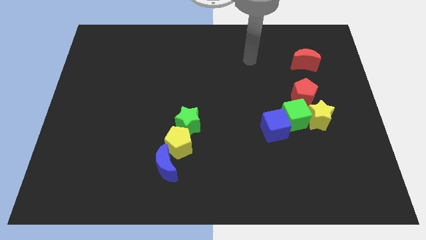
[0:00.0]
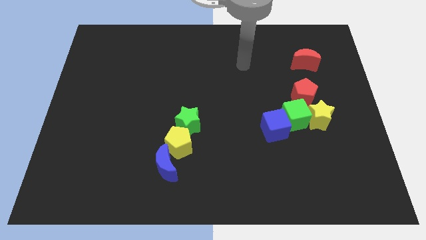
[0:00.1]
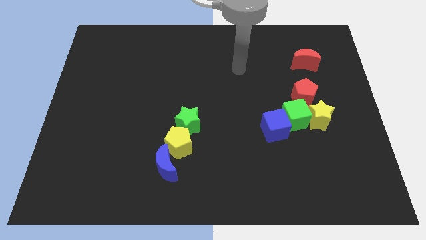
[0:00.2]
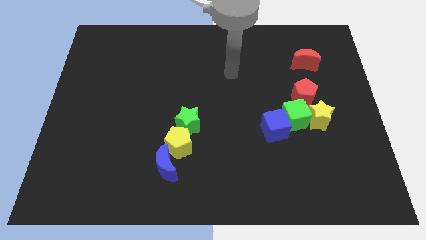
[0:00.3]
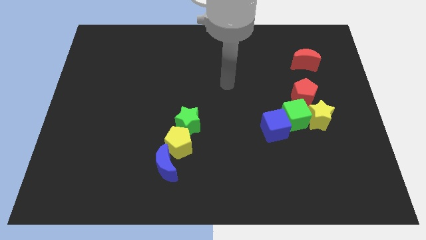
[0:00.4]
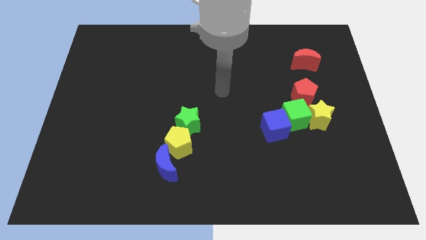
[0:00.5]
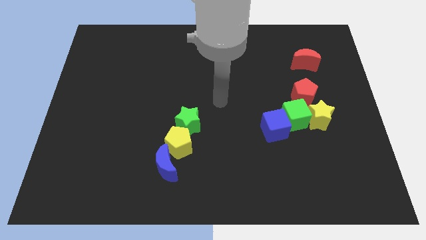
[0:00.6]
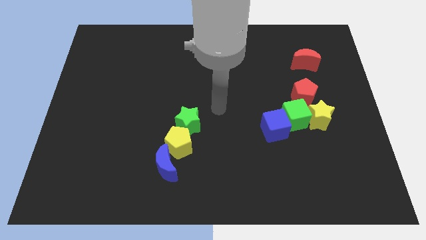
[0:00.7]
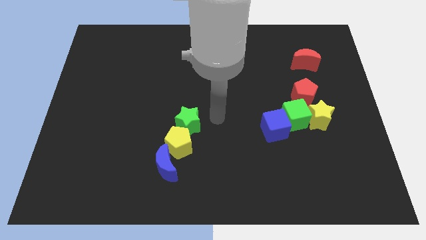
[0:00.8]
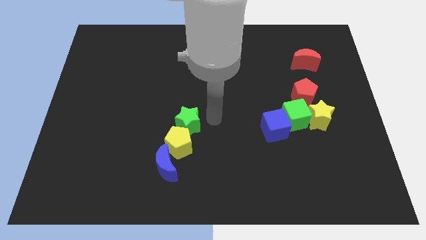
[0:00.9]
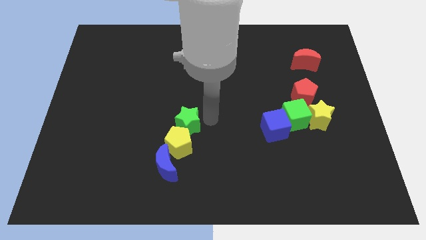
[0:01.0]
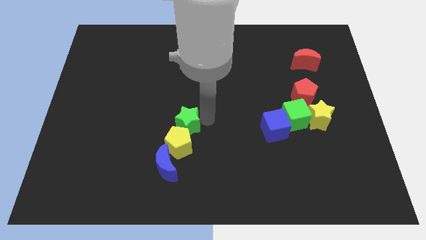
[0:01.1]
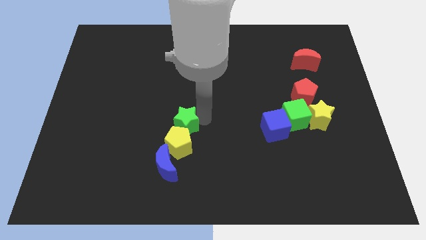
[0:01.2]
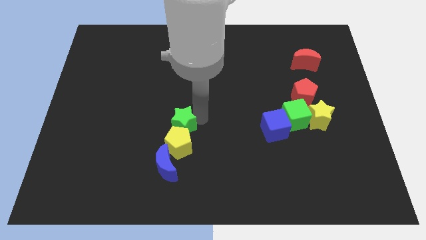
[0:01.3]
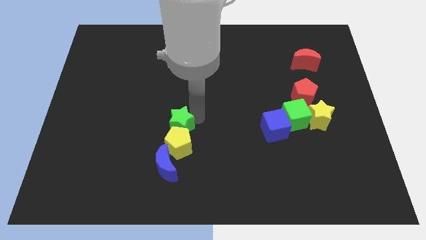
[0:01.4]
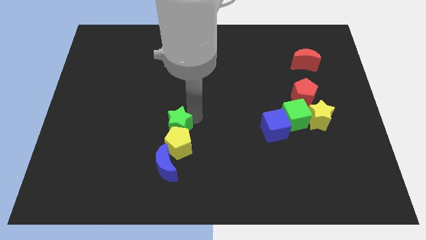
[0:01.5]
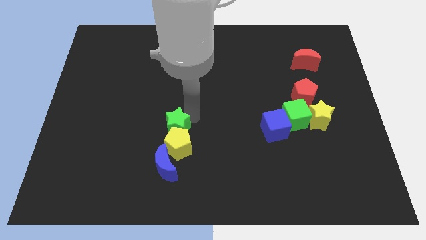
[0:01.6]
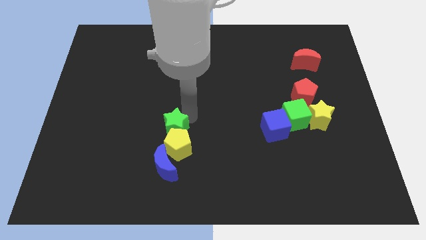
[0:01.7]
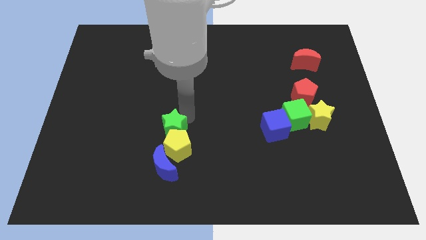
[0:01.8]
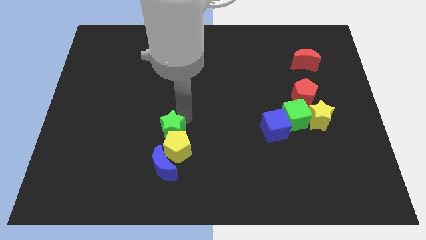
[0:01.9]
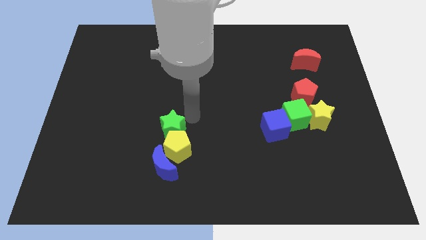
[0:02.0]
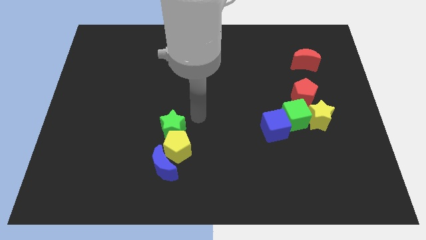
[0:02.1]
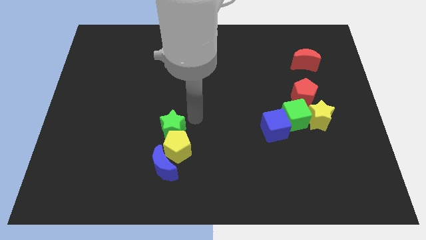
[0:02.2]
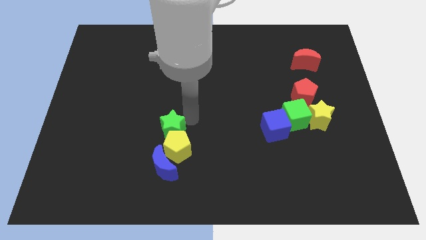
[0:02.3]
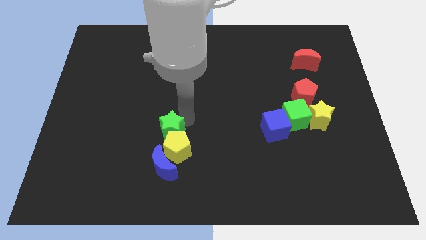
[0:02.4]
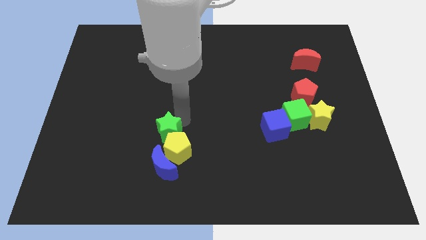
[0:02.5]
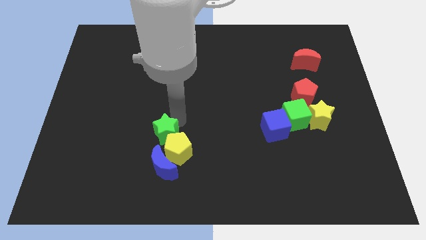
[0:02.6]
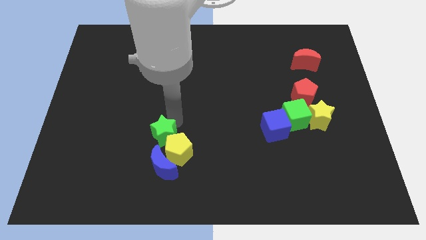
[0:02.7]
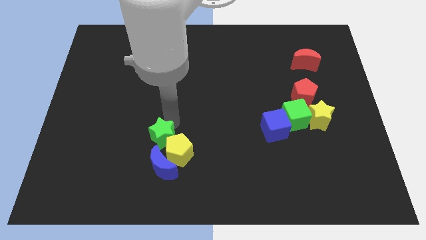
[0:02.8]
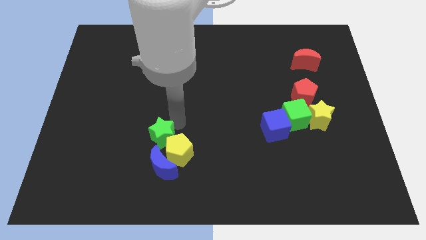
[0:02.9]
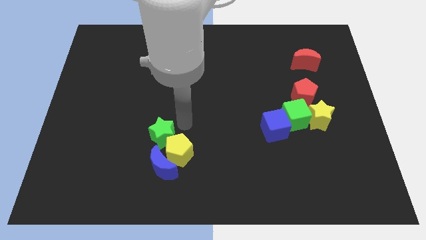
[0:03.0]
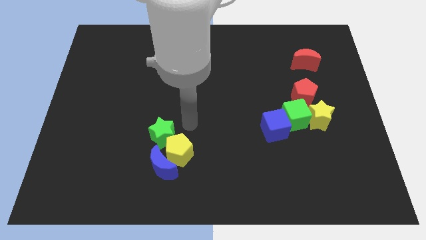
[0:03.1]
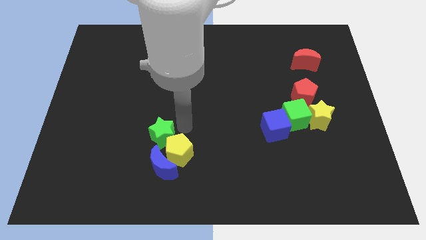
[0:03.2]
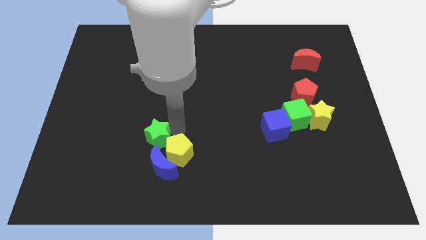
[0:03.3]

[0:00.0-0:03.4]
slide the green star a bit diagonally down and left

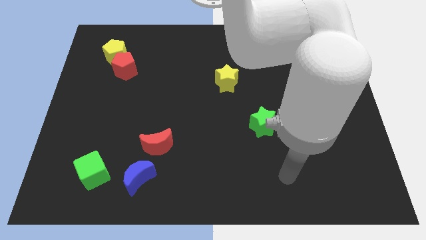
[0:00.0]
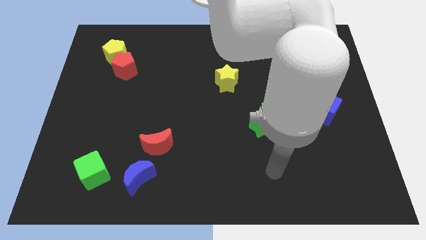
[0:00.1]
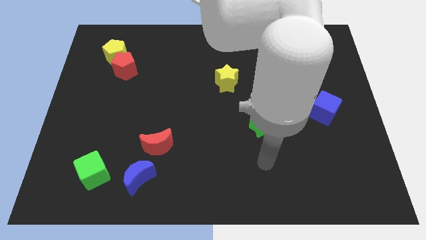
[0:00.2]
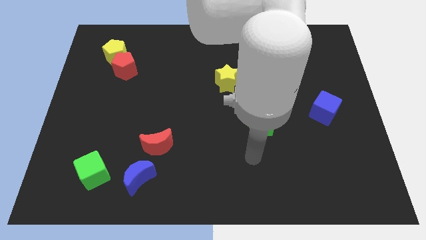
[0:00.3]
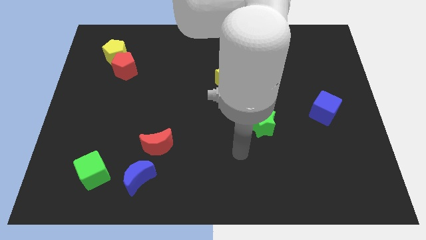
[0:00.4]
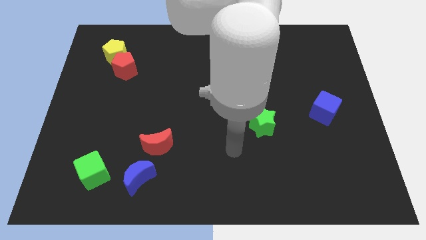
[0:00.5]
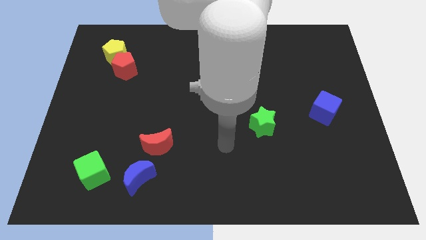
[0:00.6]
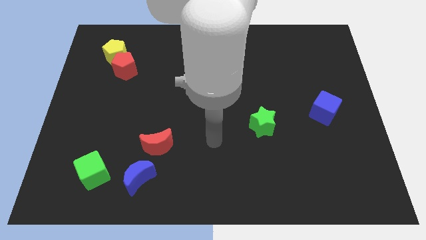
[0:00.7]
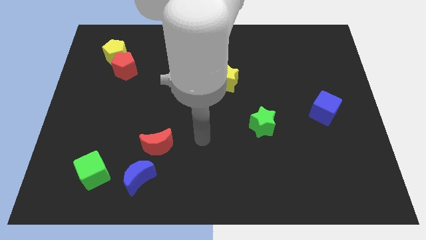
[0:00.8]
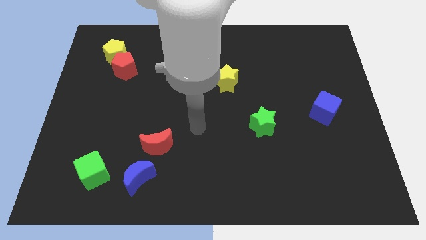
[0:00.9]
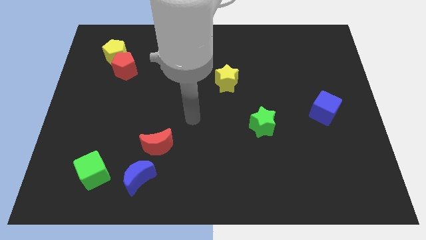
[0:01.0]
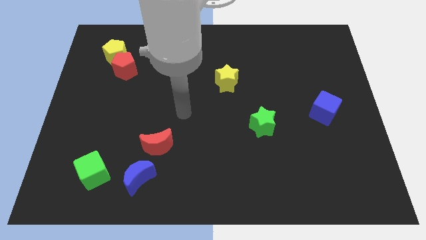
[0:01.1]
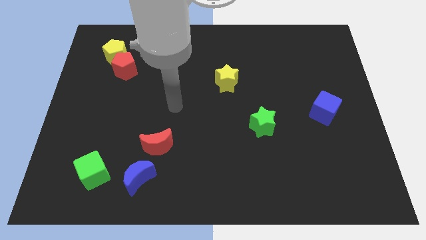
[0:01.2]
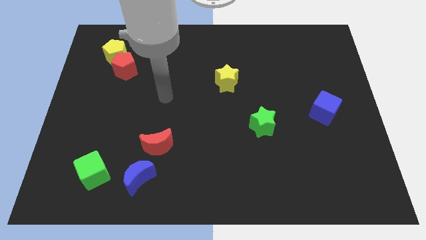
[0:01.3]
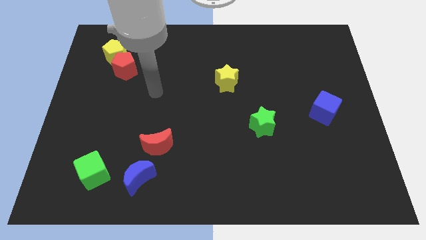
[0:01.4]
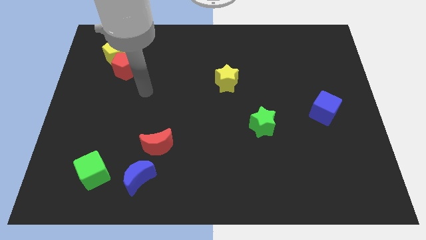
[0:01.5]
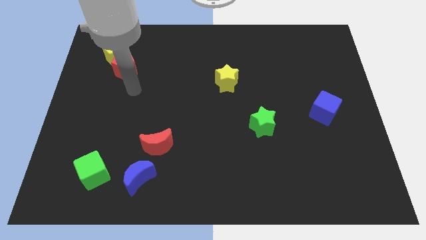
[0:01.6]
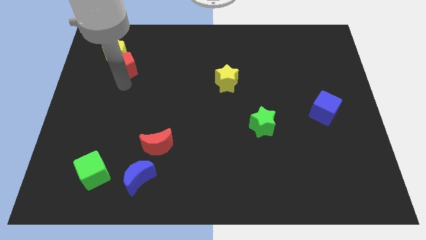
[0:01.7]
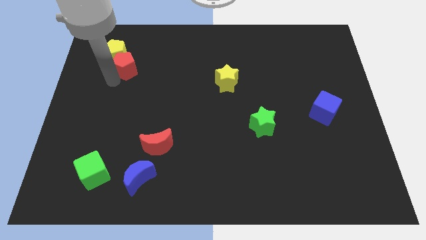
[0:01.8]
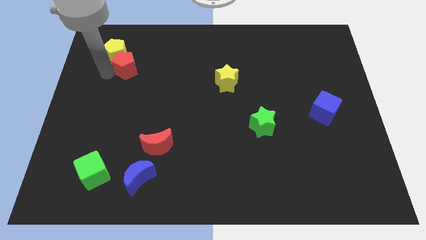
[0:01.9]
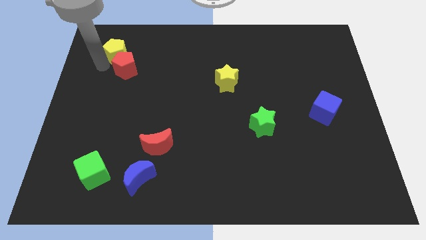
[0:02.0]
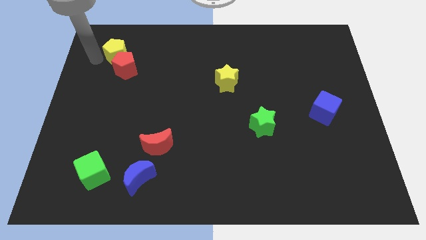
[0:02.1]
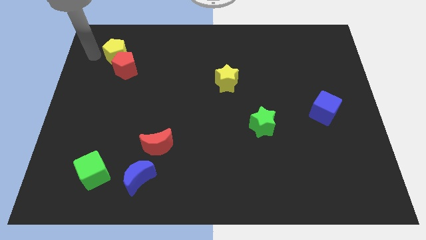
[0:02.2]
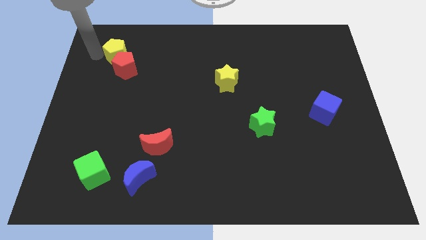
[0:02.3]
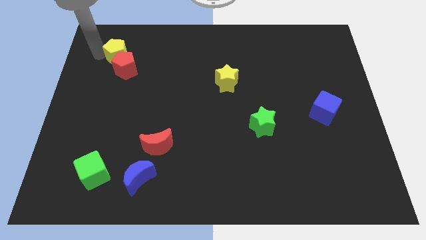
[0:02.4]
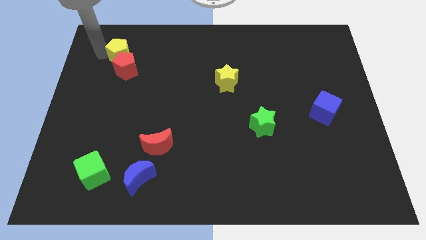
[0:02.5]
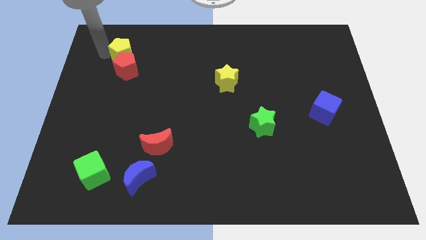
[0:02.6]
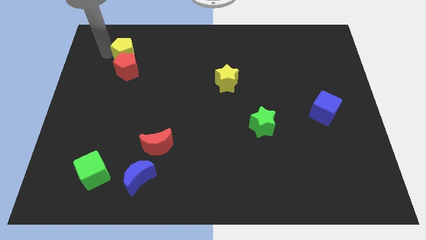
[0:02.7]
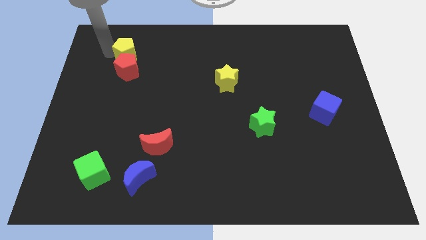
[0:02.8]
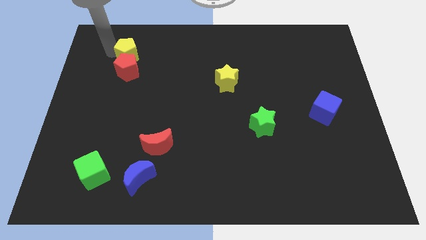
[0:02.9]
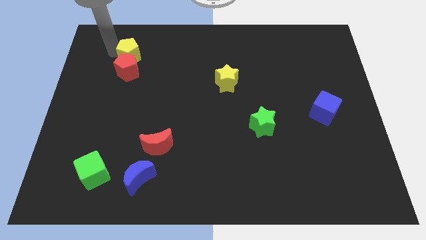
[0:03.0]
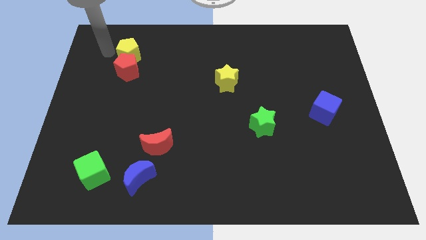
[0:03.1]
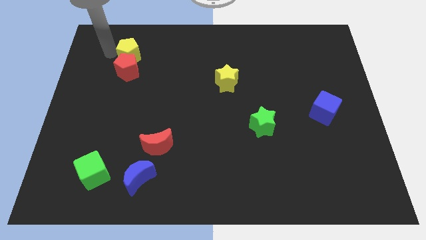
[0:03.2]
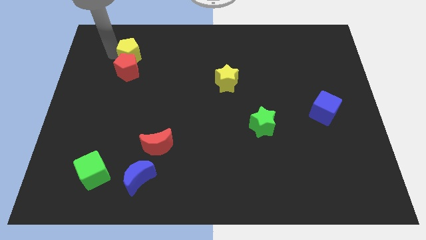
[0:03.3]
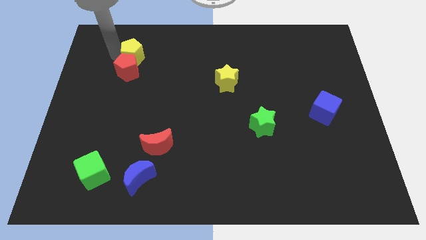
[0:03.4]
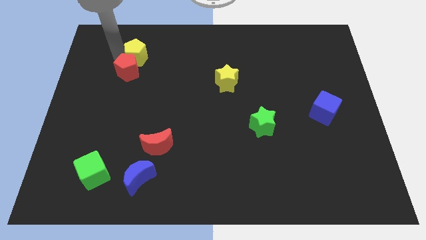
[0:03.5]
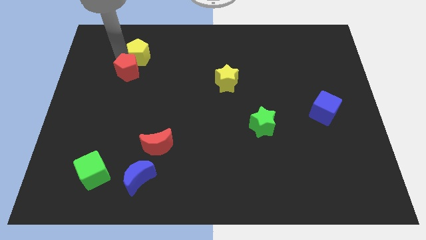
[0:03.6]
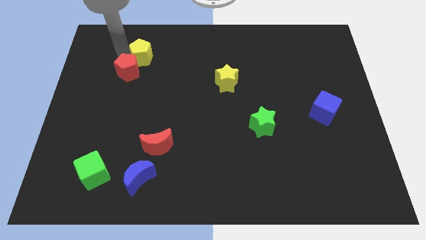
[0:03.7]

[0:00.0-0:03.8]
push the yellow pentagon to the right a bit

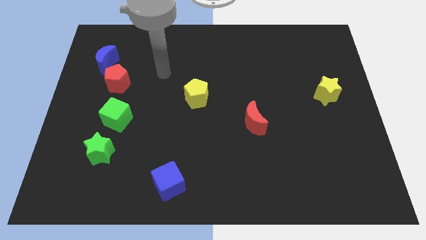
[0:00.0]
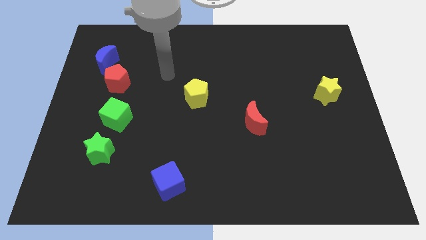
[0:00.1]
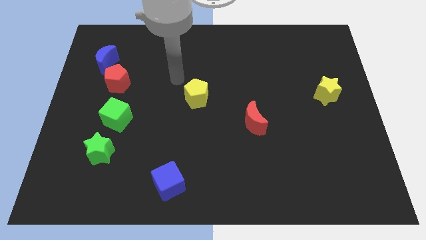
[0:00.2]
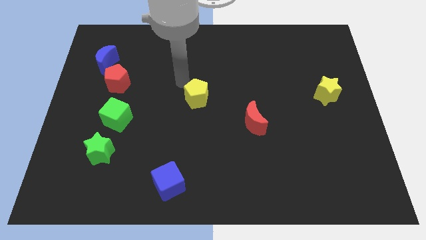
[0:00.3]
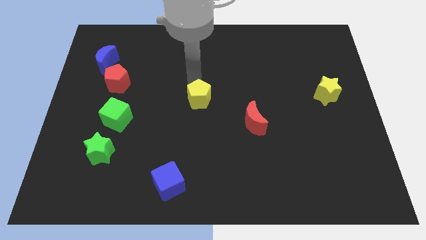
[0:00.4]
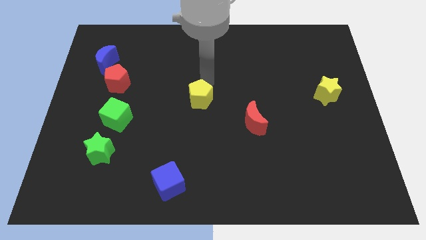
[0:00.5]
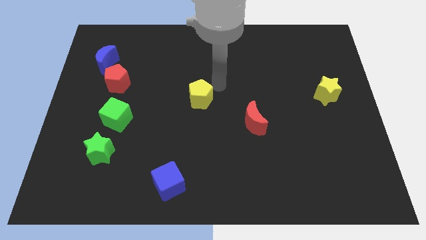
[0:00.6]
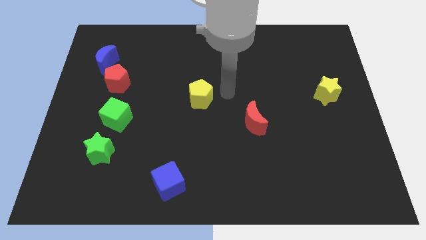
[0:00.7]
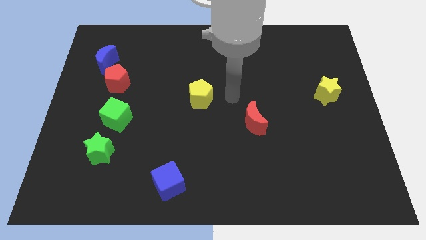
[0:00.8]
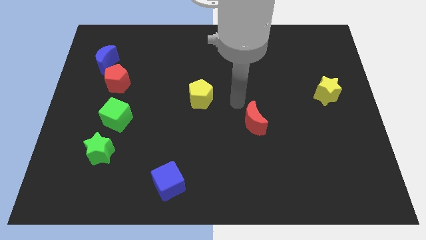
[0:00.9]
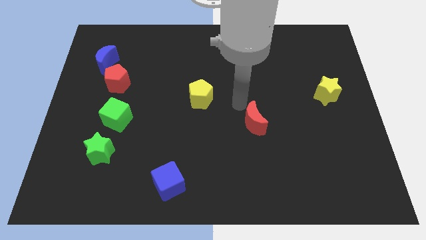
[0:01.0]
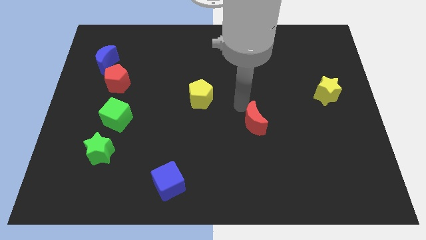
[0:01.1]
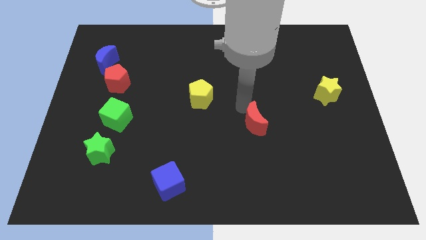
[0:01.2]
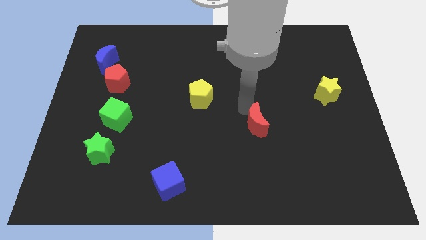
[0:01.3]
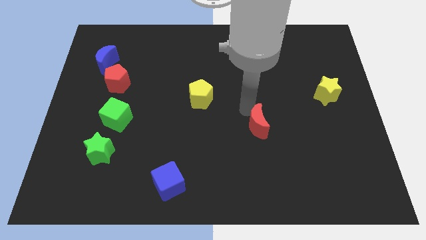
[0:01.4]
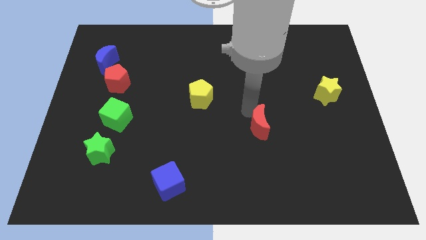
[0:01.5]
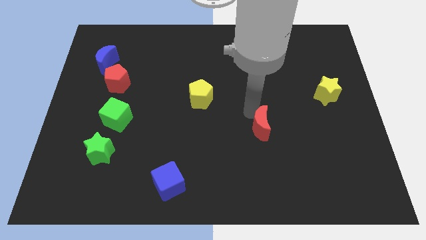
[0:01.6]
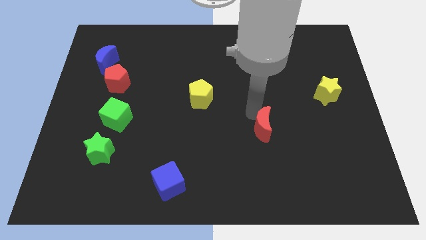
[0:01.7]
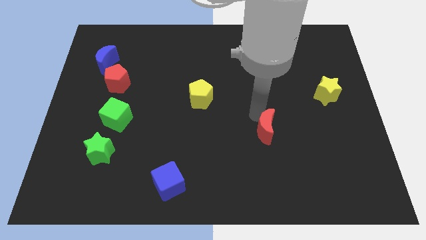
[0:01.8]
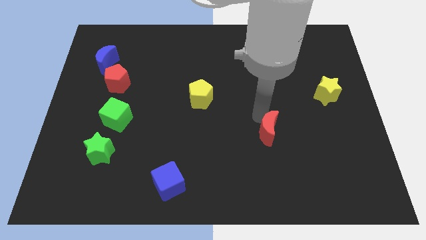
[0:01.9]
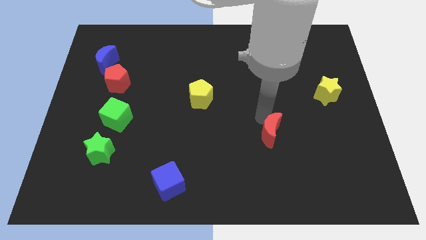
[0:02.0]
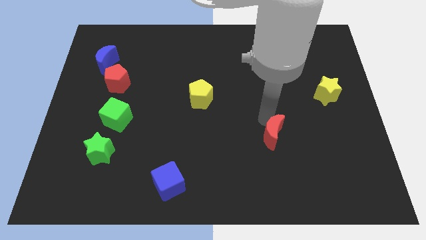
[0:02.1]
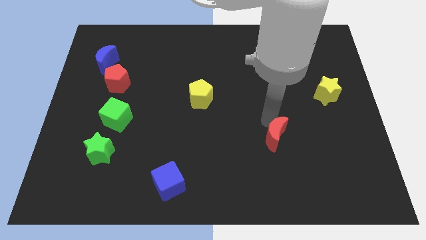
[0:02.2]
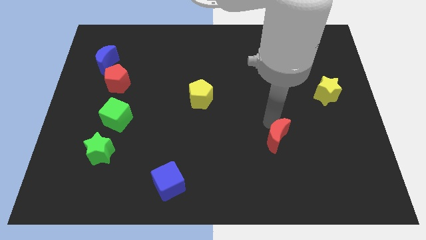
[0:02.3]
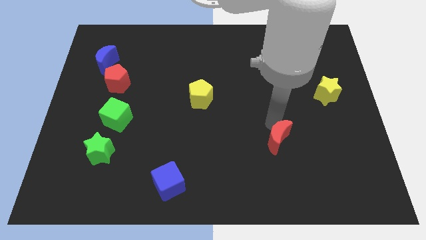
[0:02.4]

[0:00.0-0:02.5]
slightly push the red moon down and to the right
